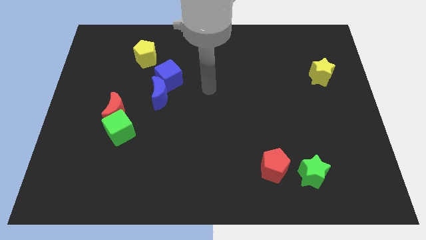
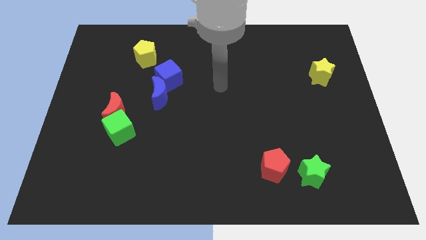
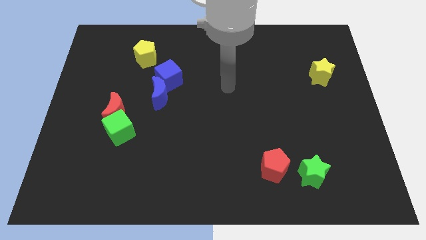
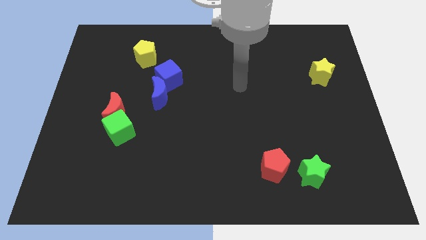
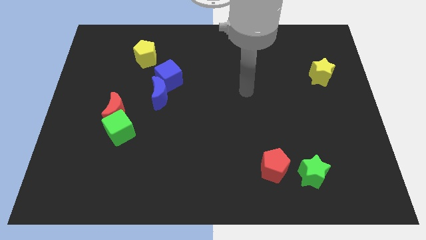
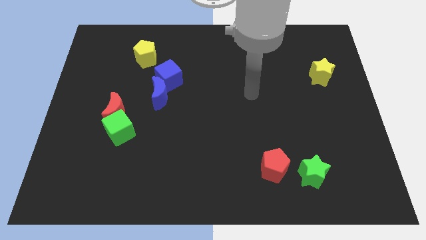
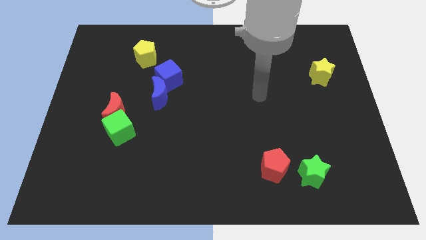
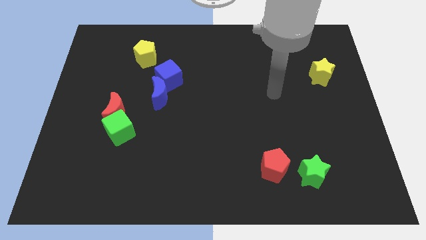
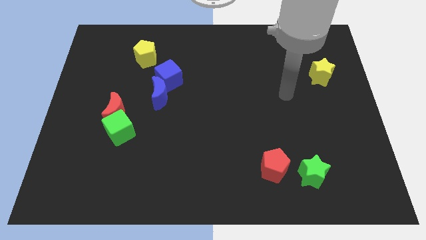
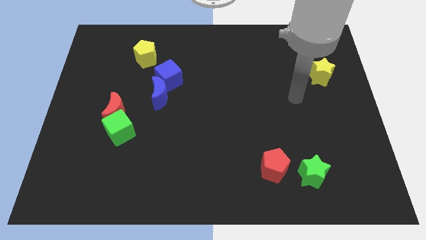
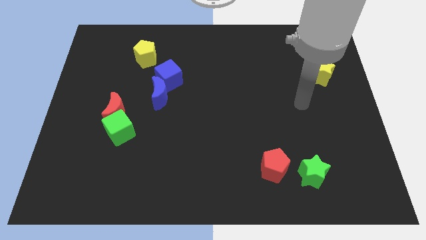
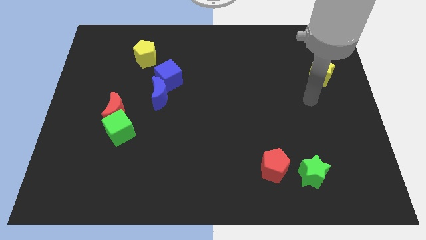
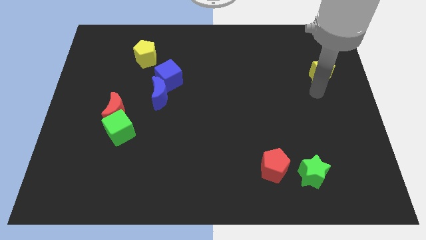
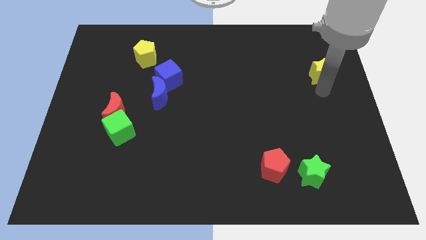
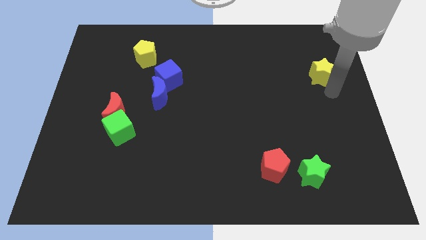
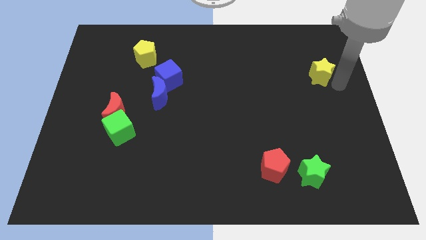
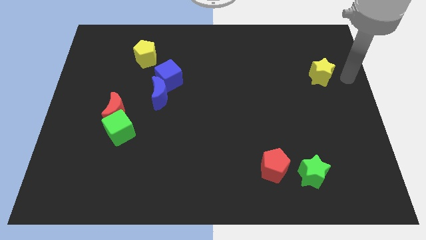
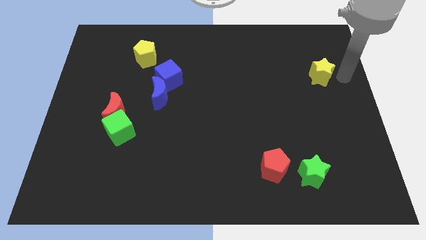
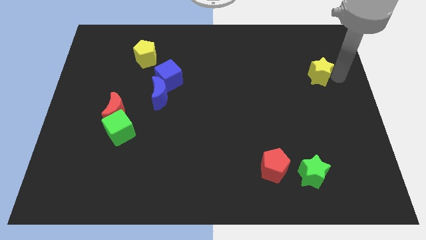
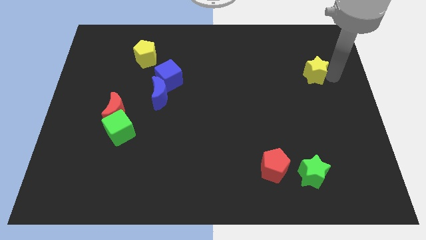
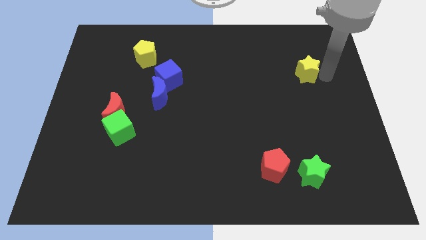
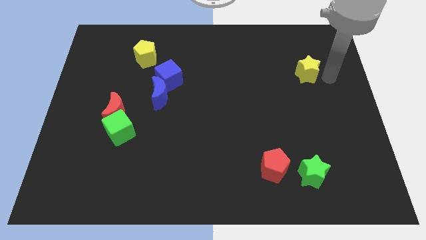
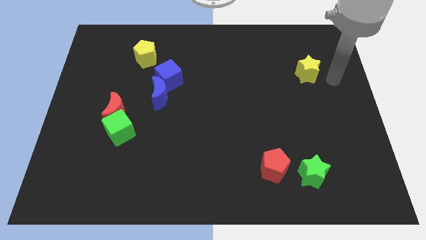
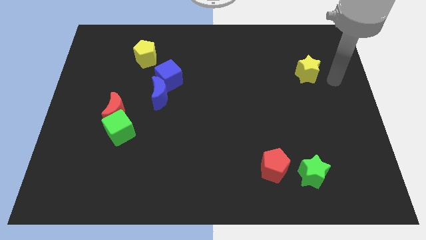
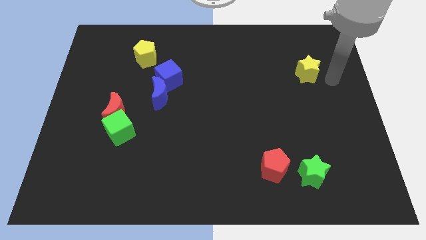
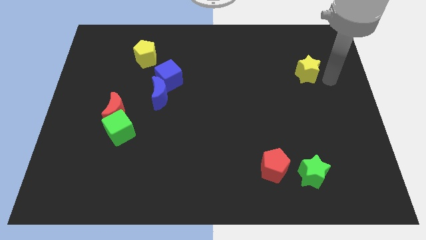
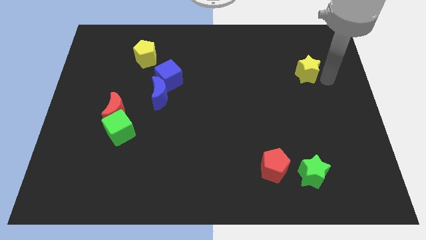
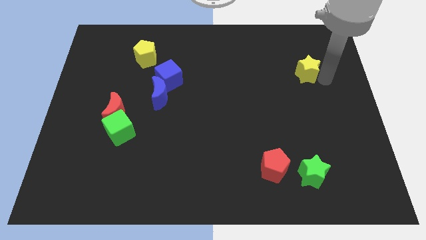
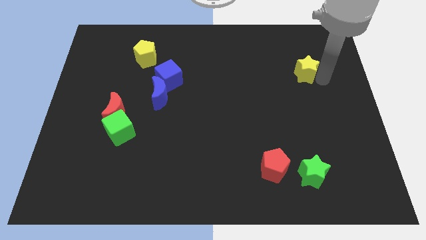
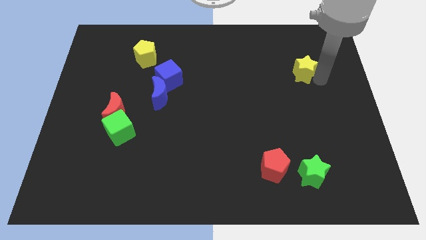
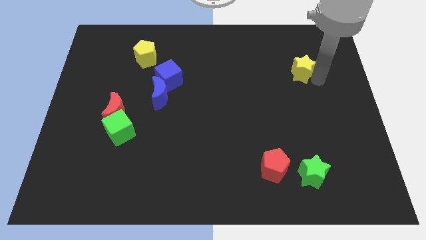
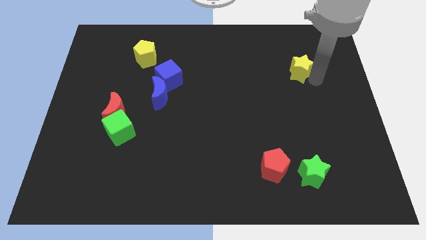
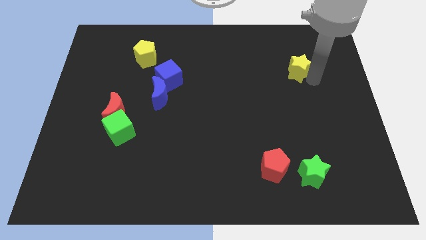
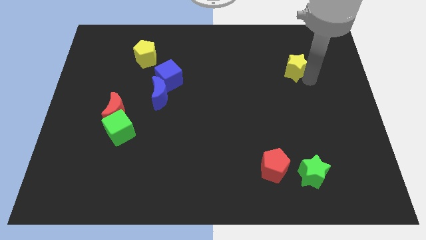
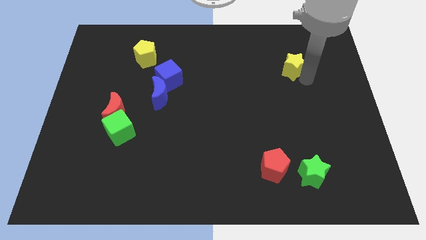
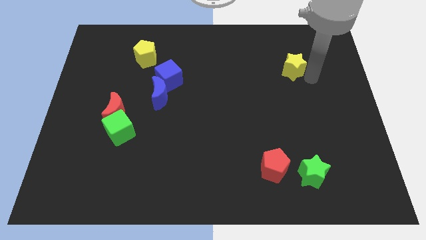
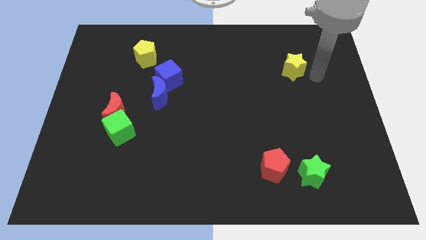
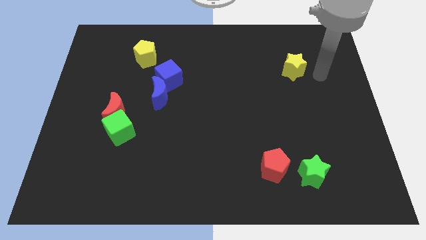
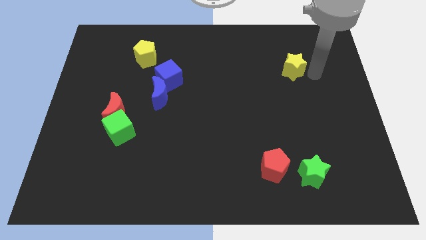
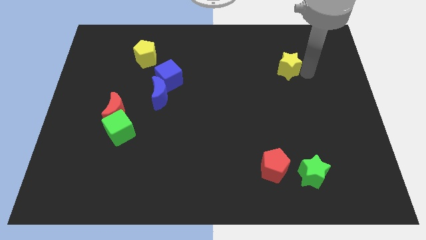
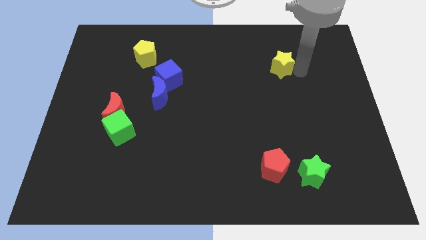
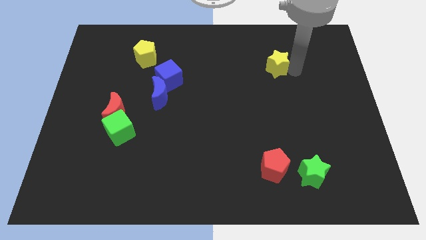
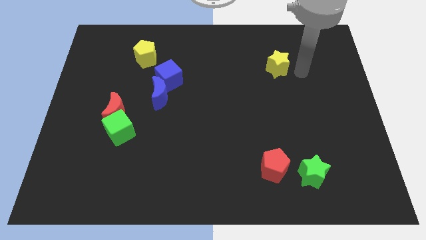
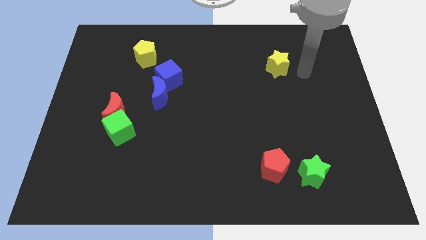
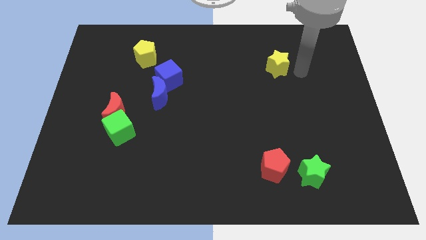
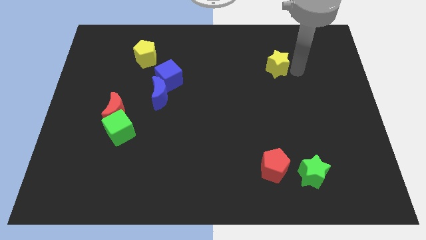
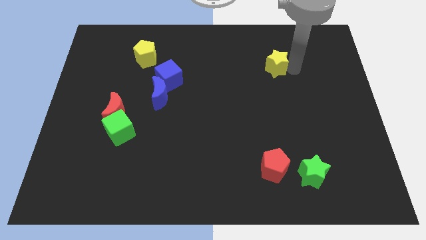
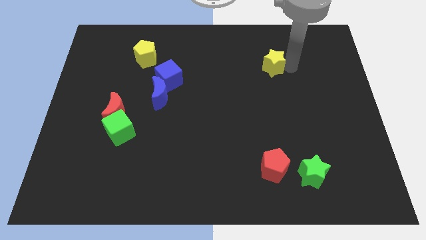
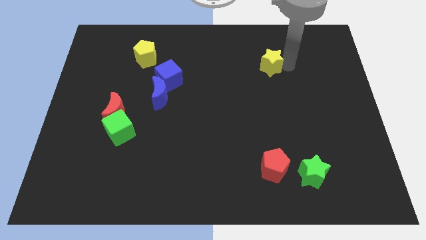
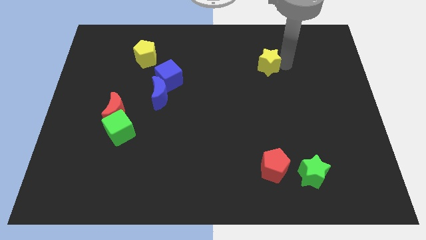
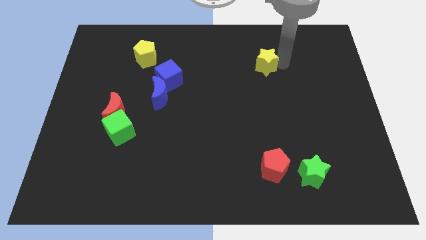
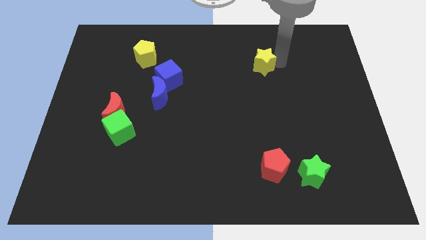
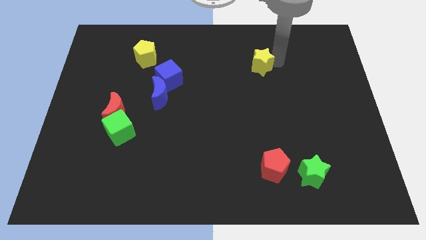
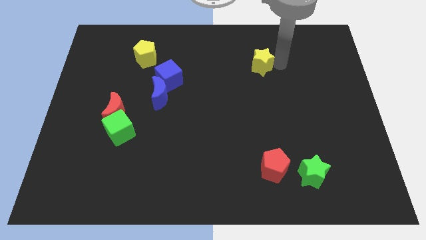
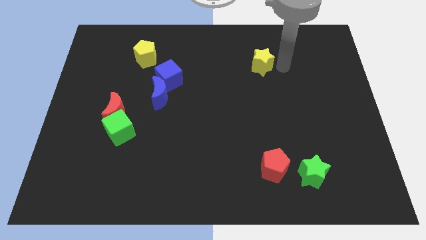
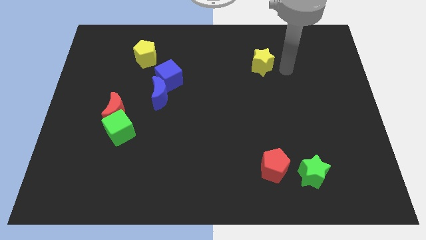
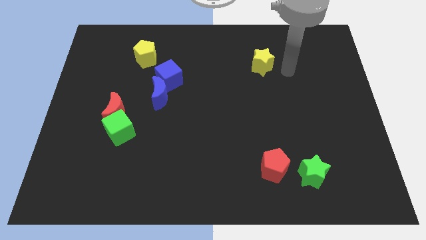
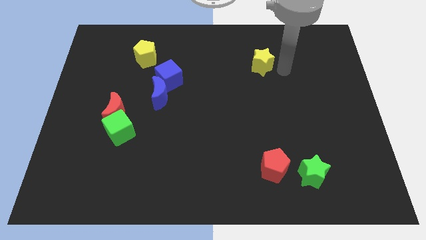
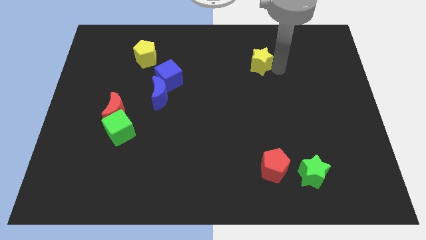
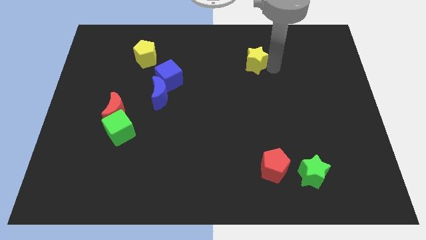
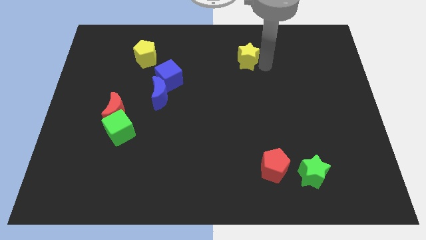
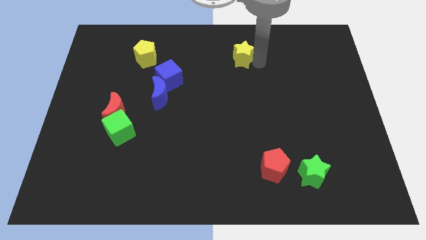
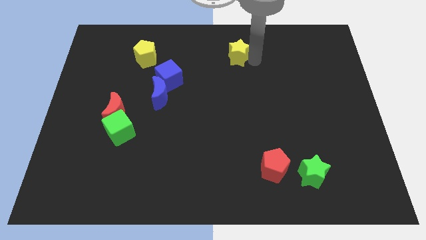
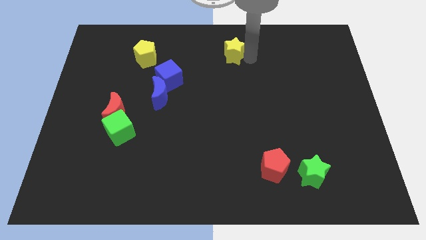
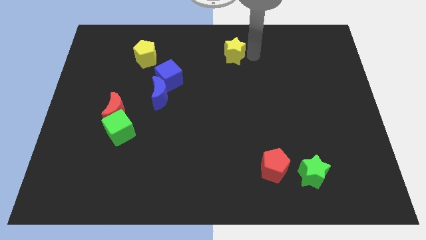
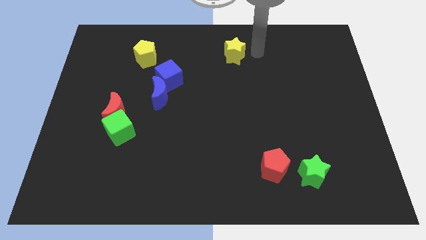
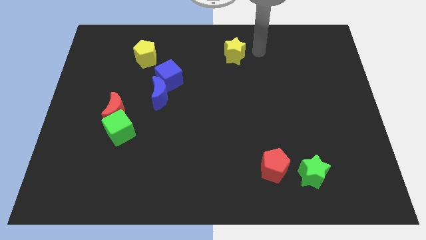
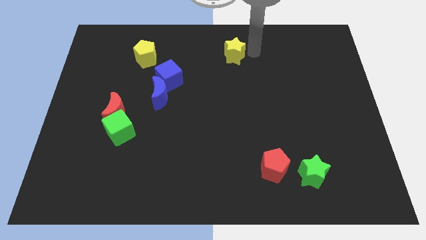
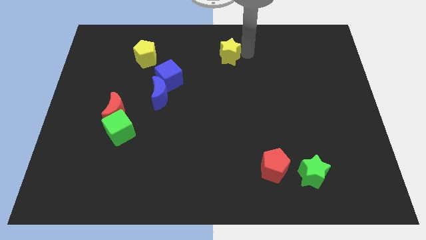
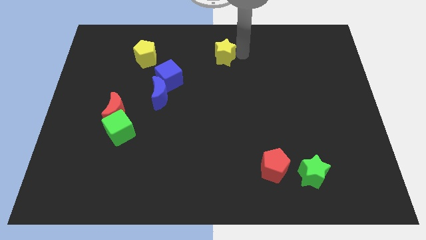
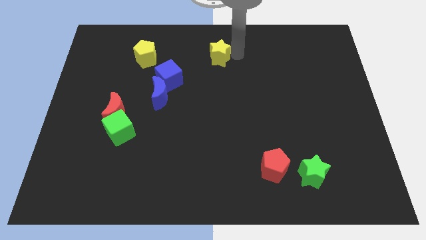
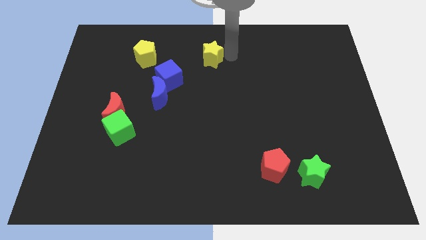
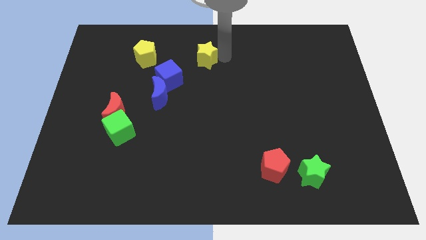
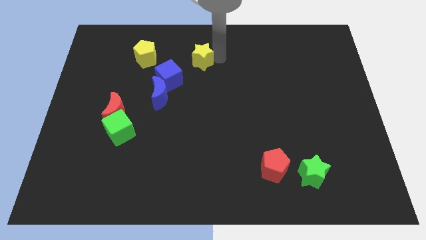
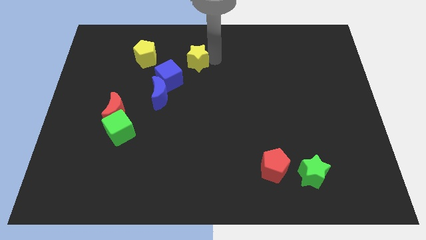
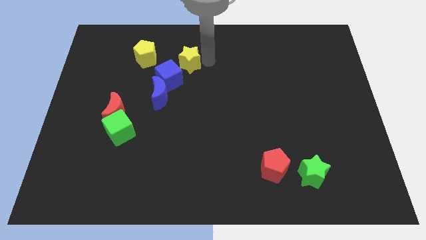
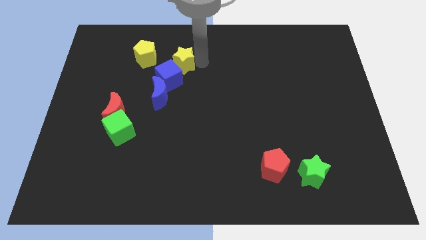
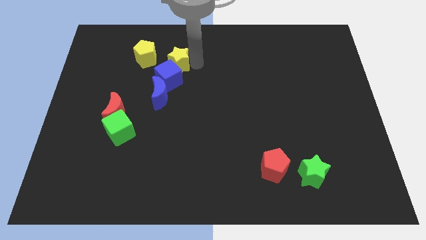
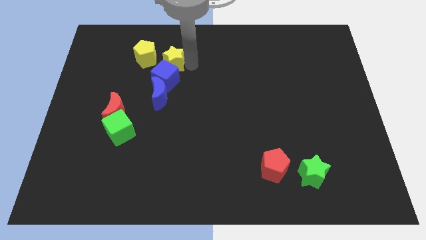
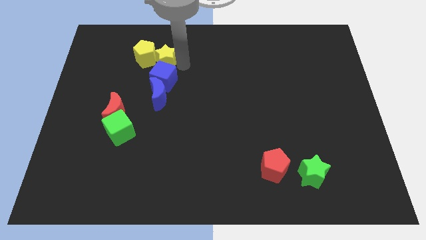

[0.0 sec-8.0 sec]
slide the yellow star next to the yellow pentagon
